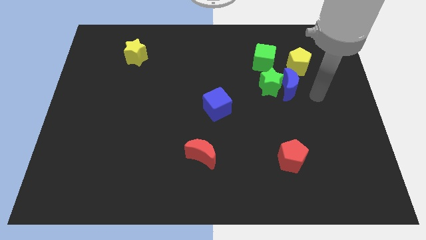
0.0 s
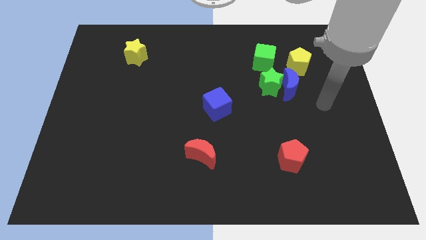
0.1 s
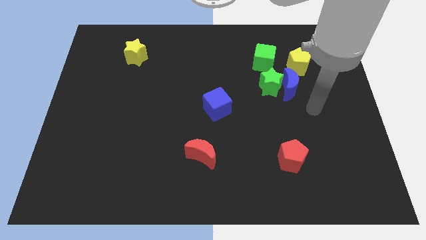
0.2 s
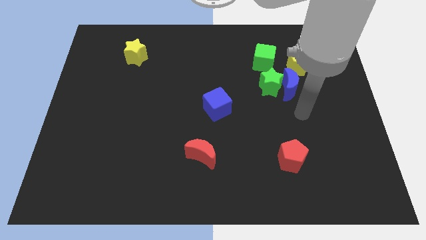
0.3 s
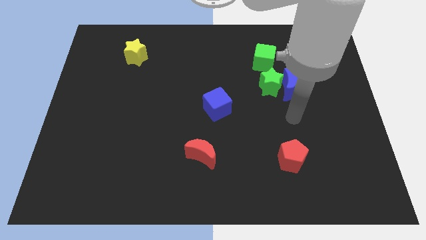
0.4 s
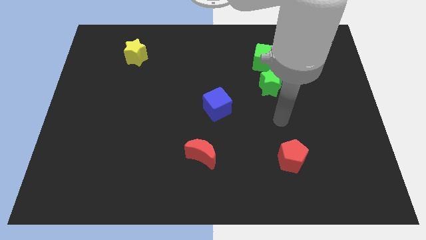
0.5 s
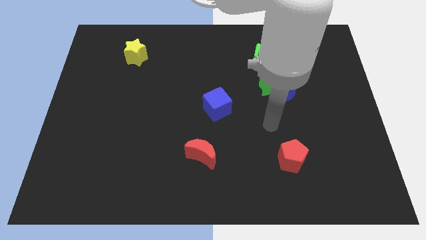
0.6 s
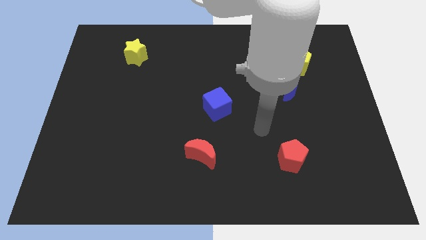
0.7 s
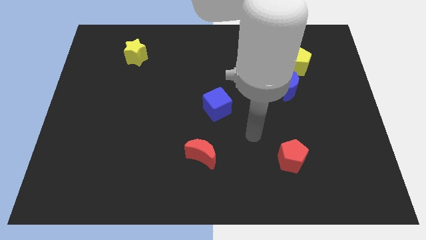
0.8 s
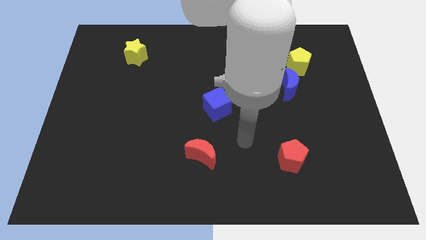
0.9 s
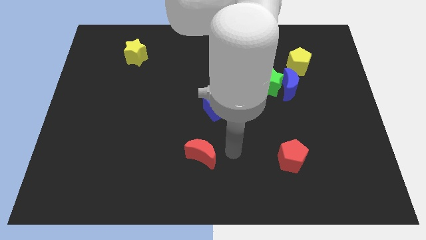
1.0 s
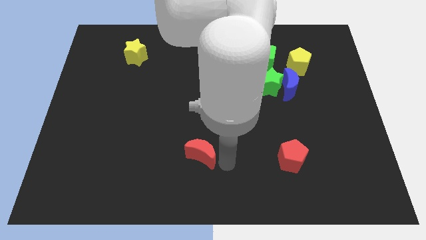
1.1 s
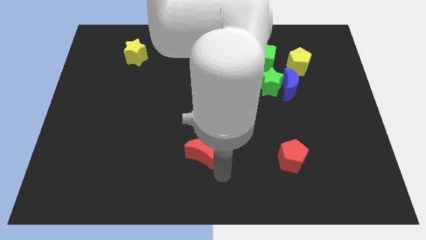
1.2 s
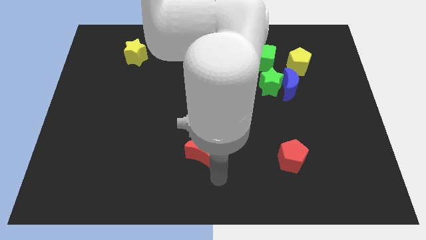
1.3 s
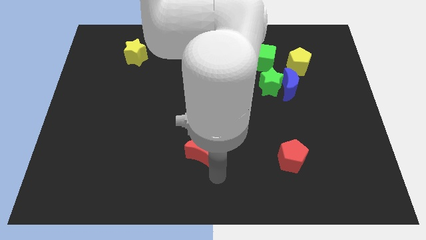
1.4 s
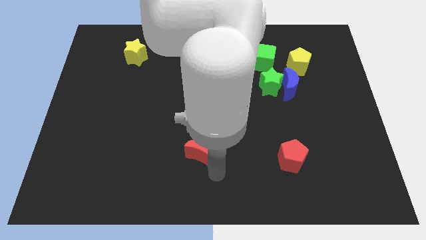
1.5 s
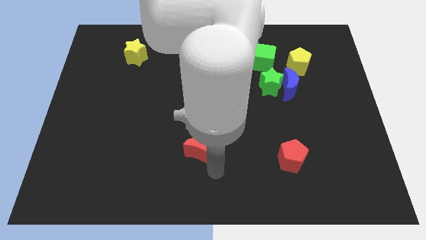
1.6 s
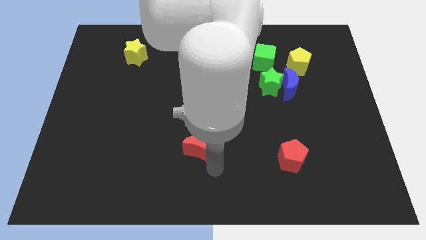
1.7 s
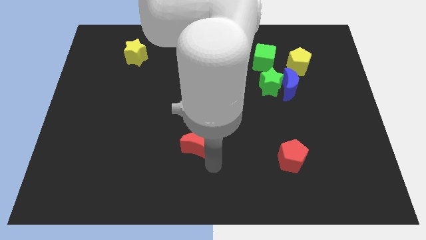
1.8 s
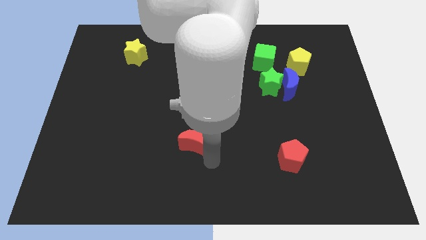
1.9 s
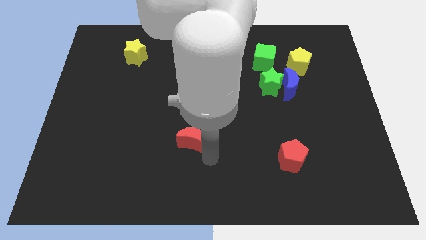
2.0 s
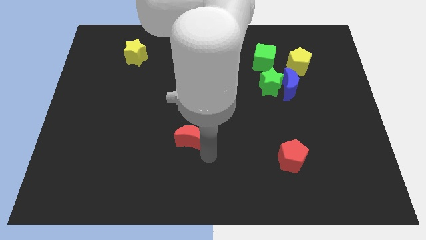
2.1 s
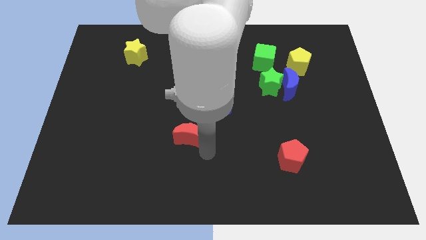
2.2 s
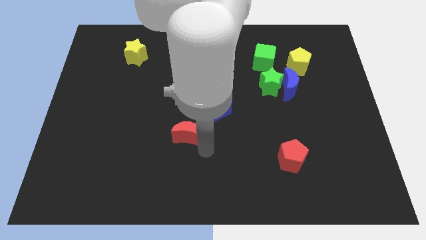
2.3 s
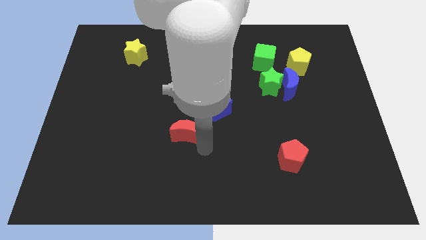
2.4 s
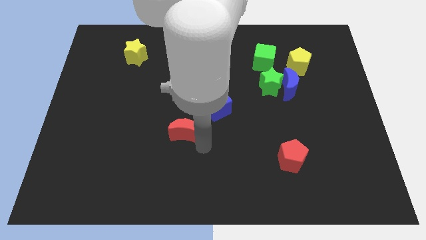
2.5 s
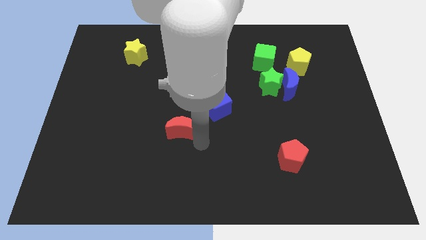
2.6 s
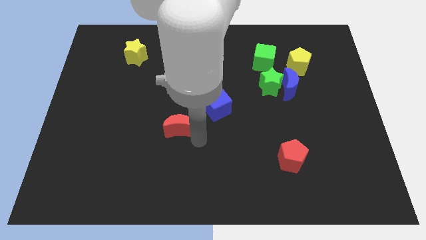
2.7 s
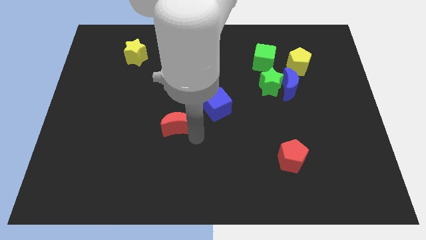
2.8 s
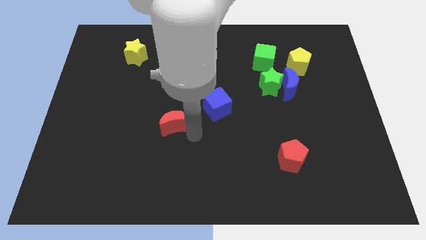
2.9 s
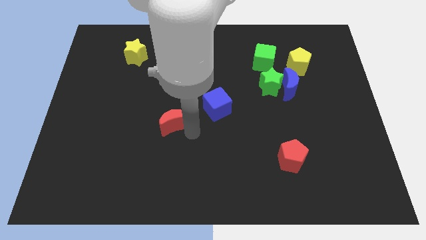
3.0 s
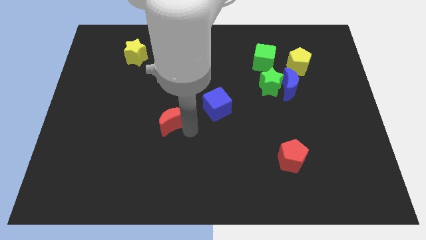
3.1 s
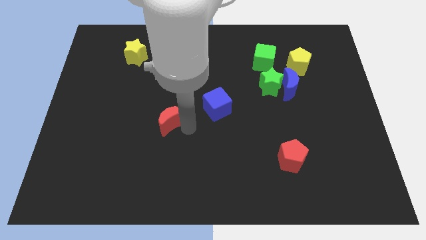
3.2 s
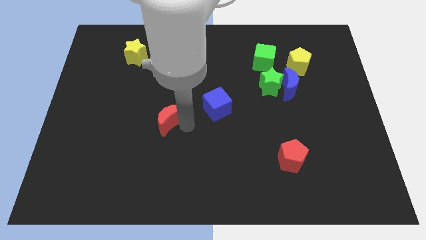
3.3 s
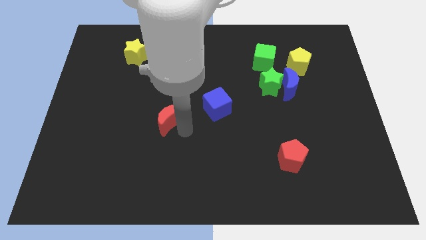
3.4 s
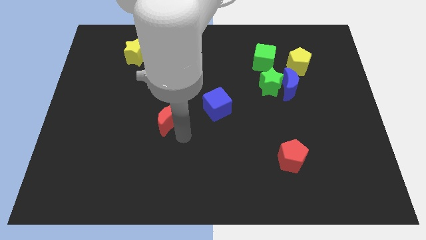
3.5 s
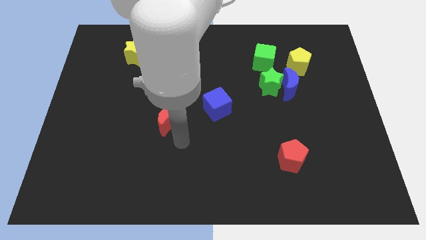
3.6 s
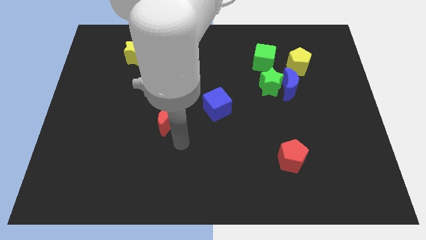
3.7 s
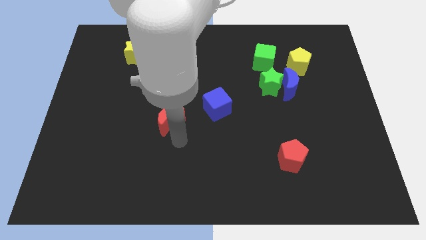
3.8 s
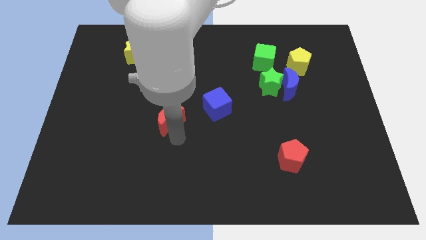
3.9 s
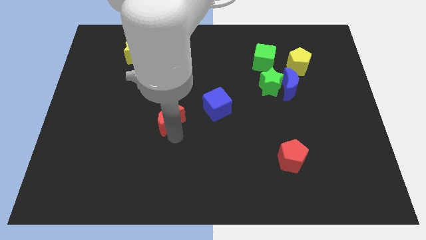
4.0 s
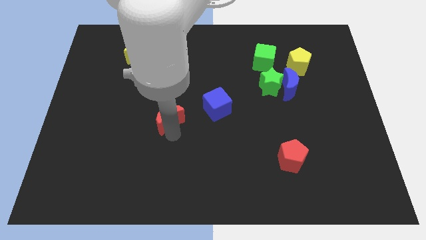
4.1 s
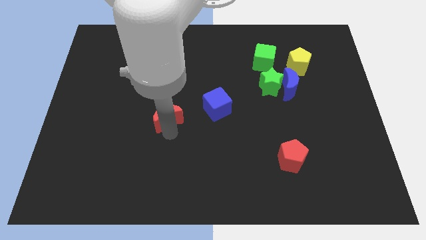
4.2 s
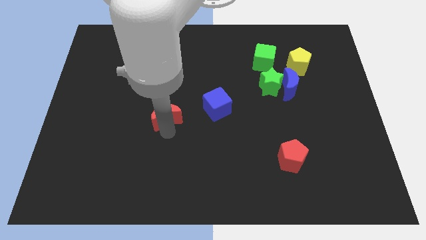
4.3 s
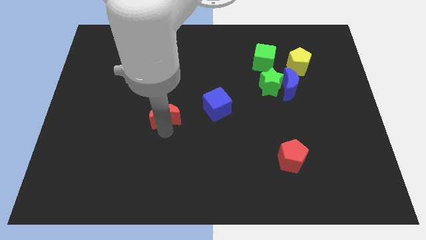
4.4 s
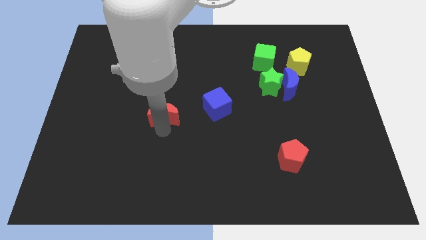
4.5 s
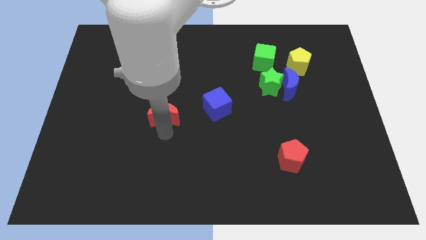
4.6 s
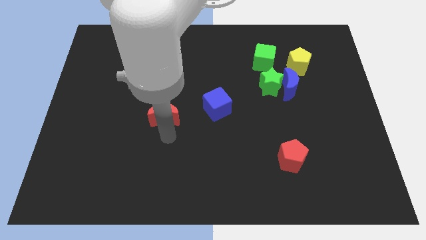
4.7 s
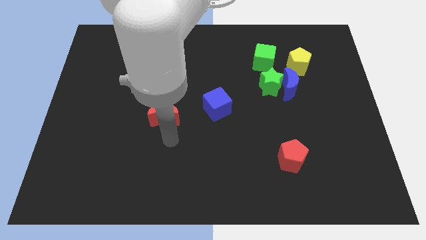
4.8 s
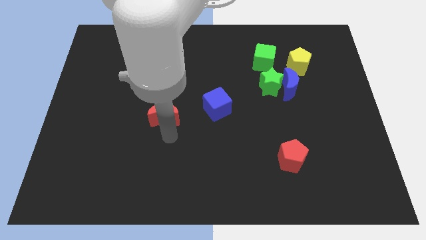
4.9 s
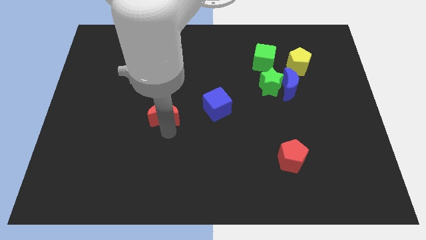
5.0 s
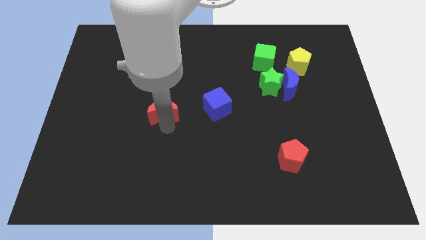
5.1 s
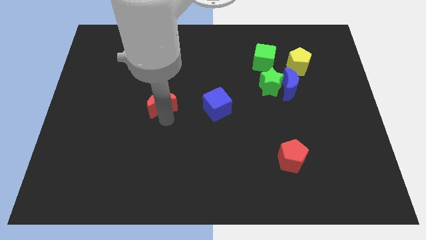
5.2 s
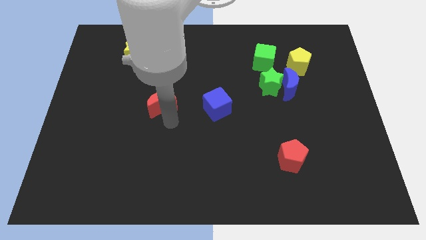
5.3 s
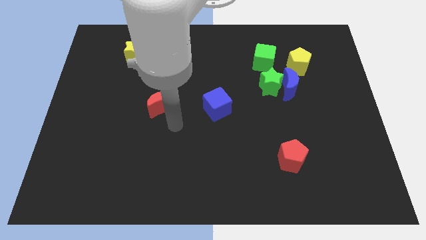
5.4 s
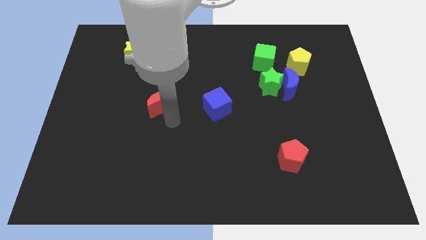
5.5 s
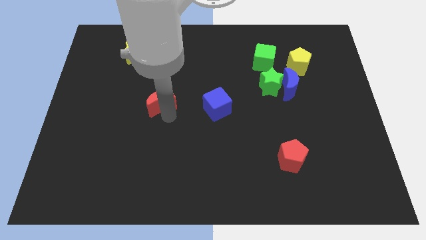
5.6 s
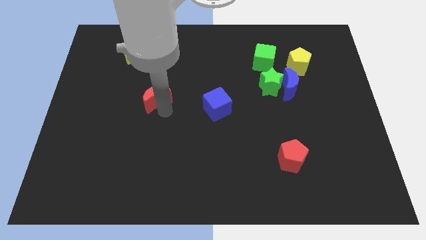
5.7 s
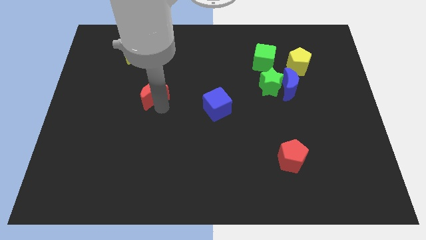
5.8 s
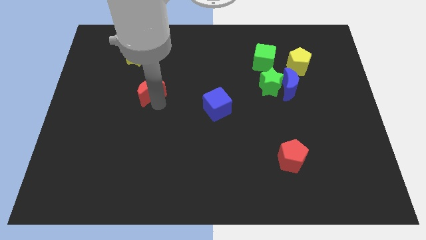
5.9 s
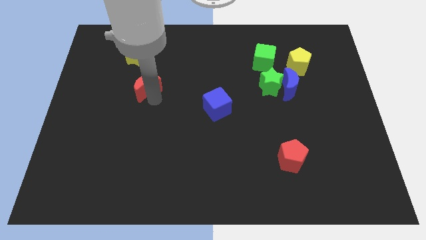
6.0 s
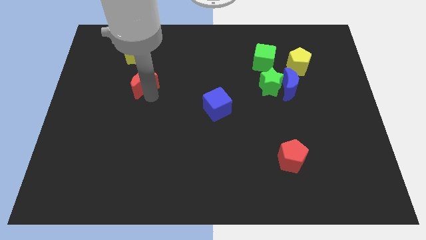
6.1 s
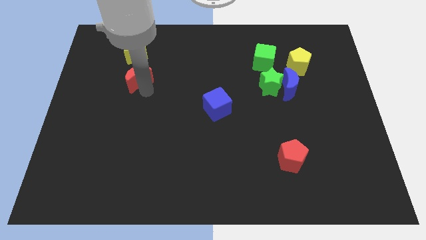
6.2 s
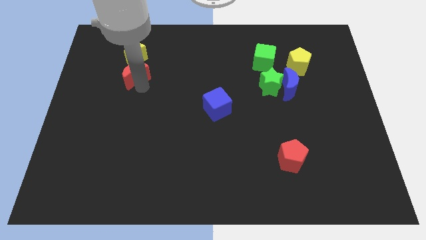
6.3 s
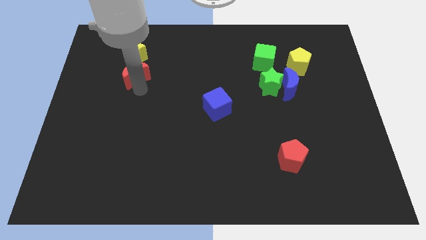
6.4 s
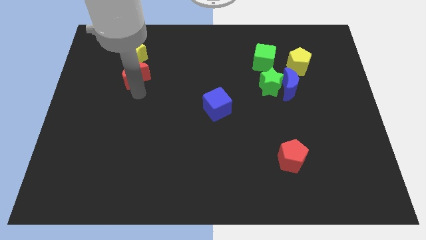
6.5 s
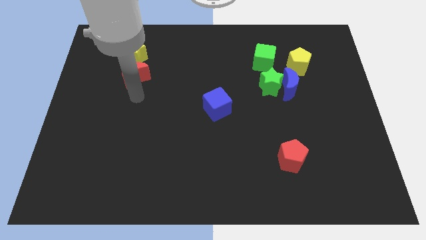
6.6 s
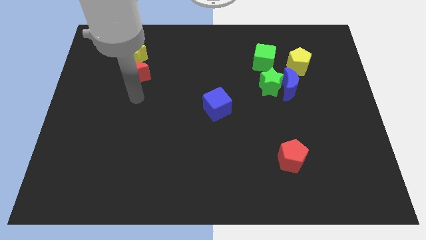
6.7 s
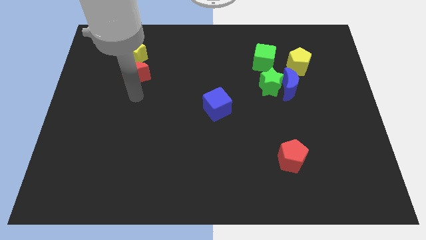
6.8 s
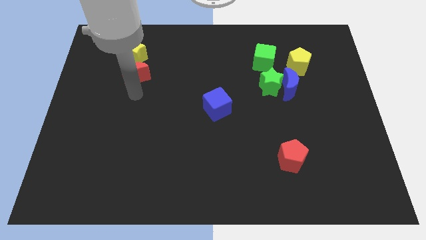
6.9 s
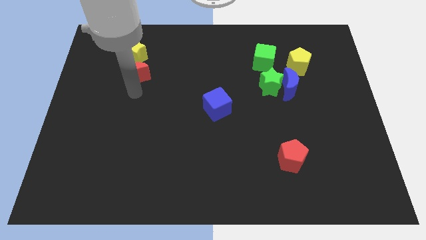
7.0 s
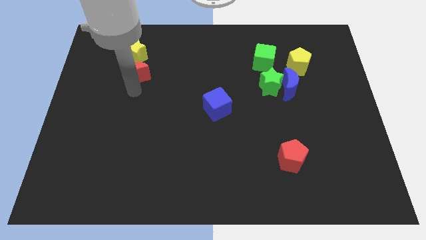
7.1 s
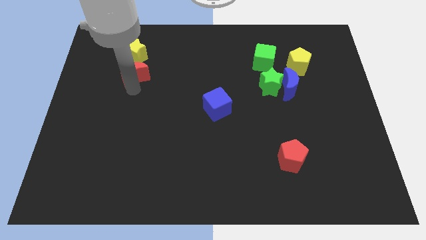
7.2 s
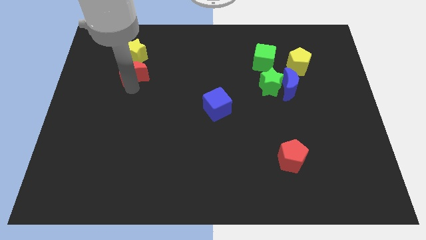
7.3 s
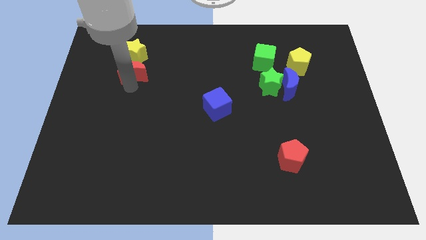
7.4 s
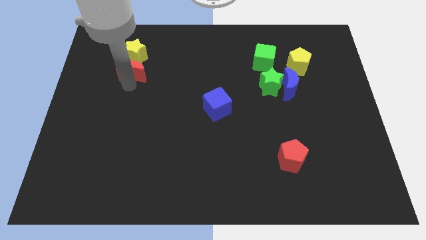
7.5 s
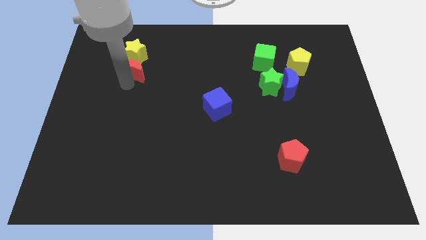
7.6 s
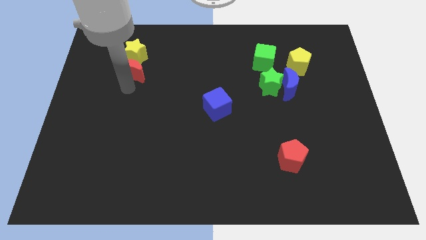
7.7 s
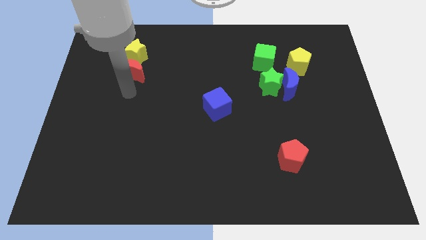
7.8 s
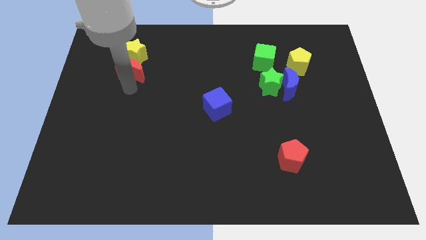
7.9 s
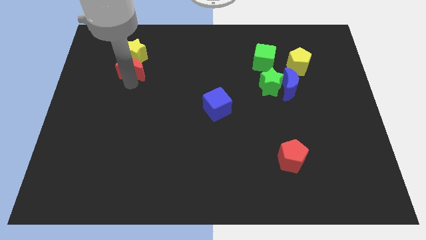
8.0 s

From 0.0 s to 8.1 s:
push the red moon towards the yellow star
